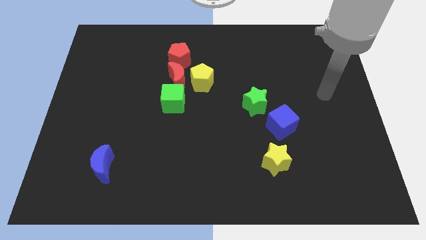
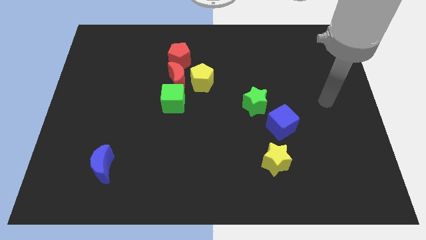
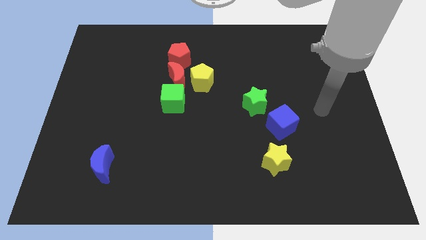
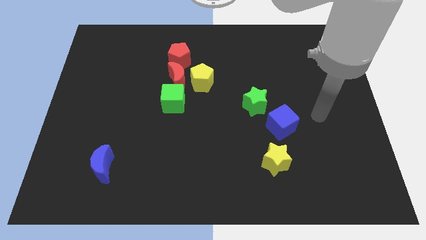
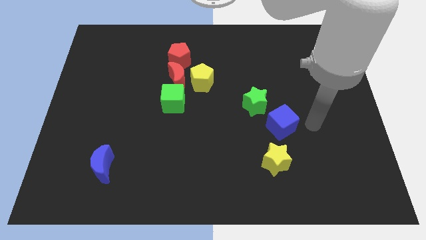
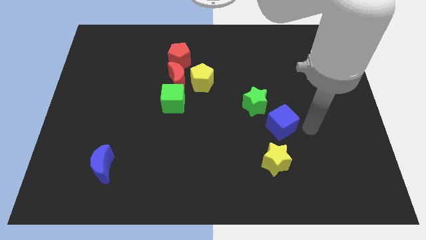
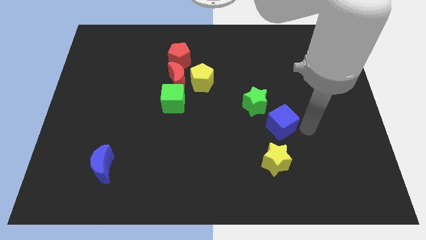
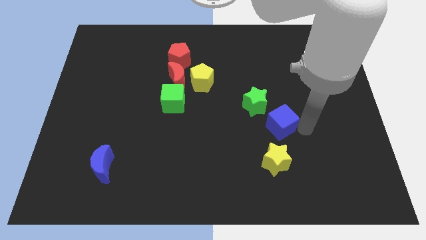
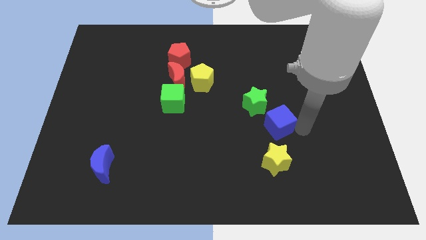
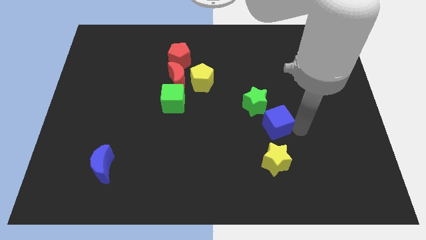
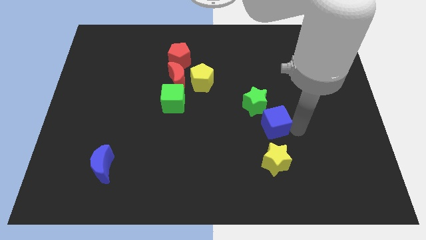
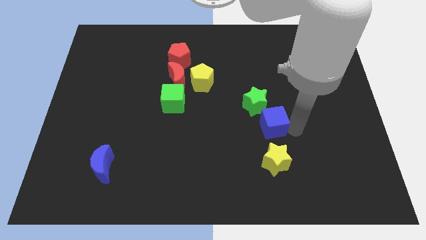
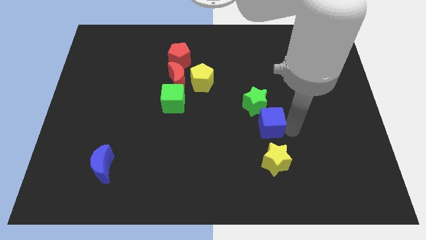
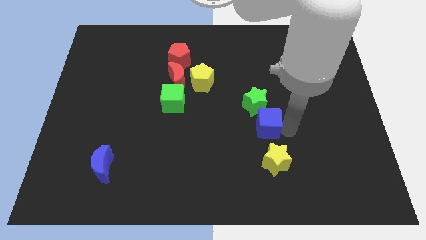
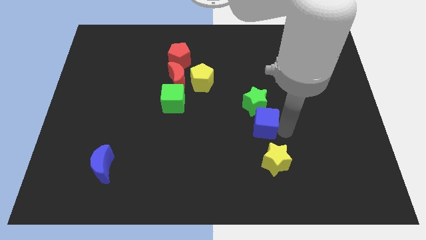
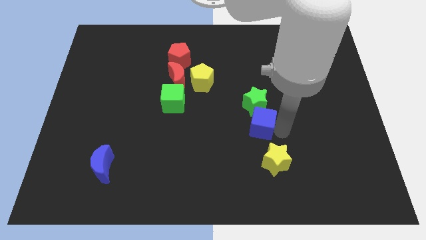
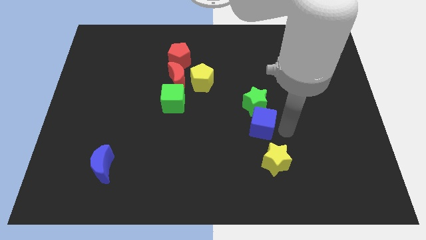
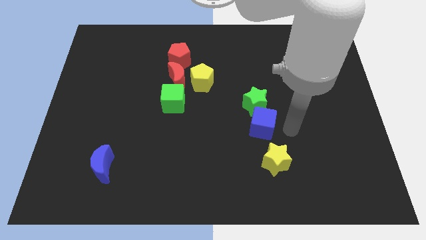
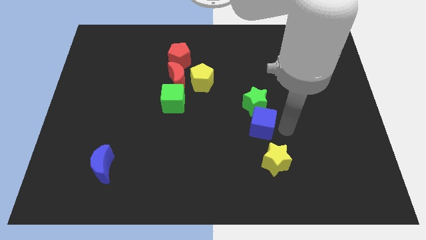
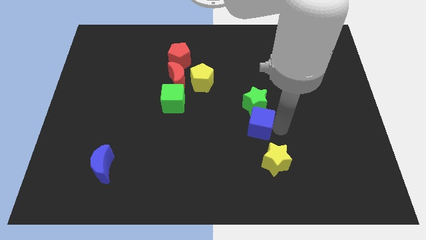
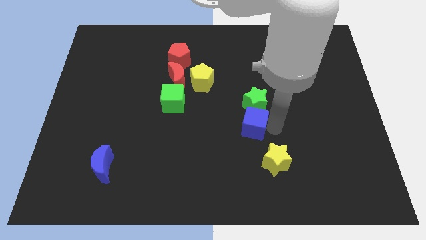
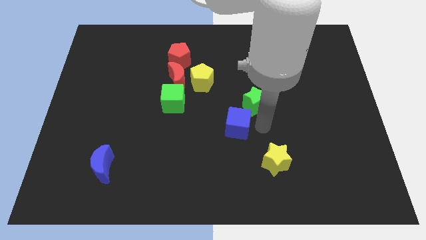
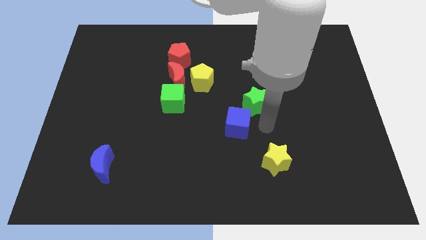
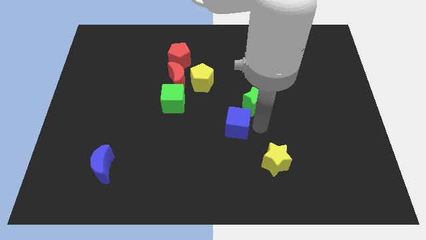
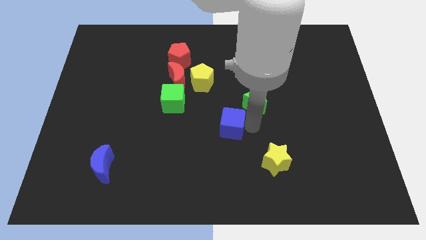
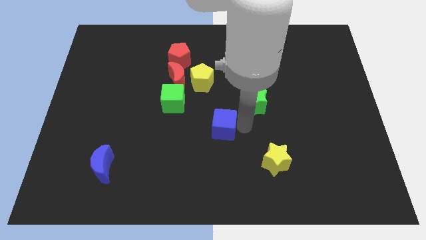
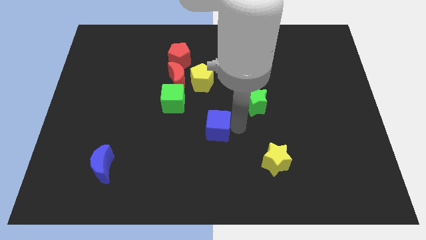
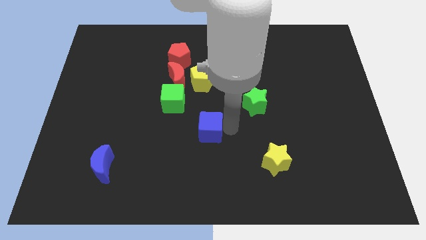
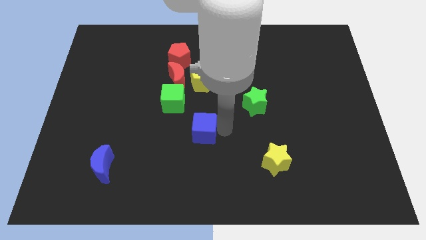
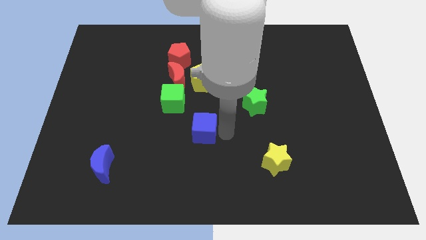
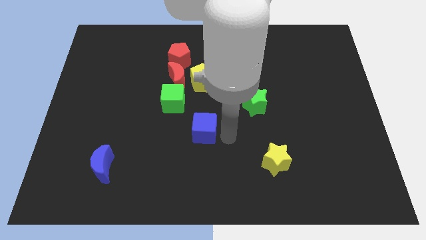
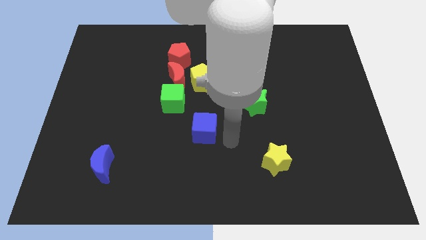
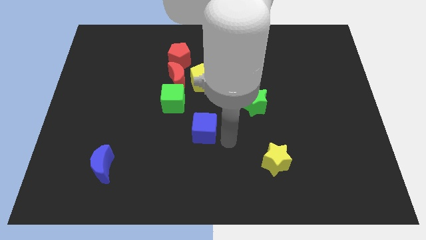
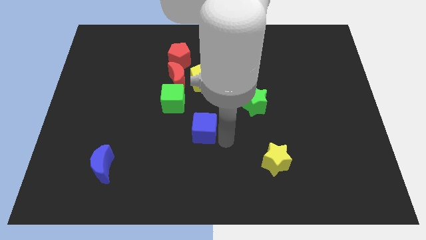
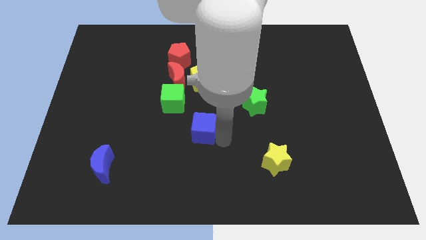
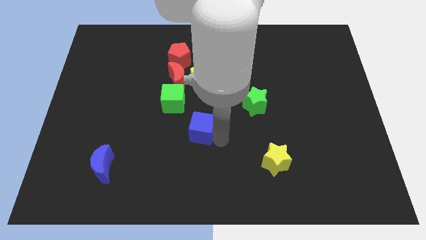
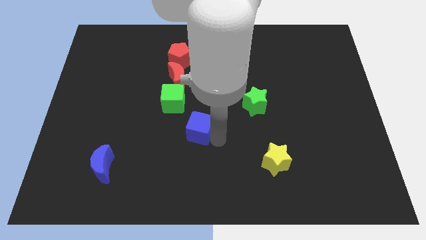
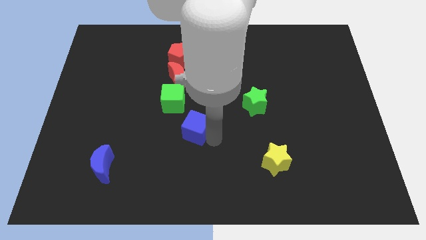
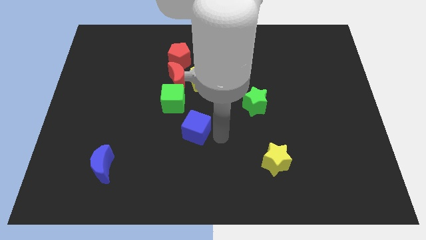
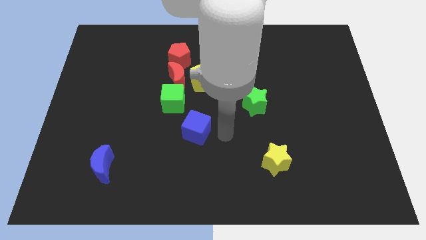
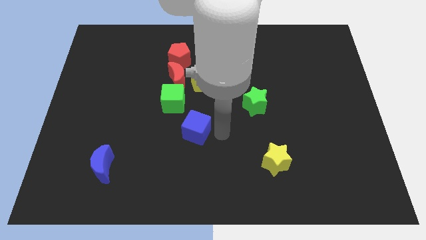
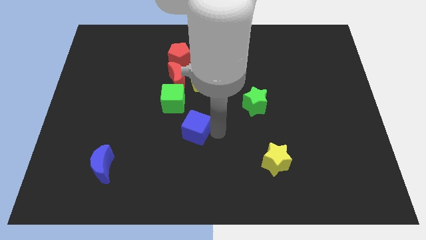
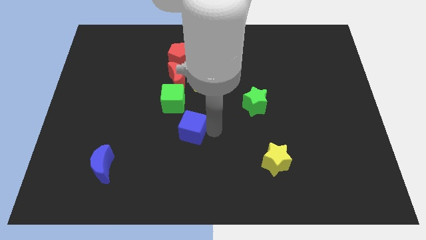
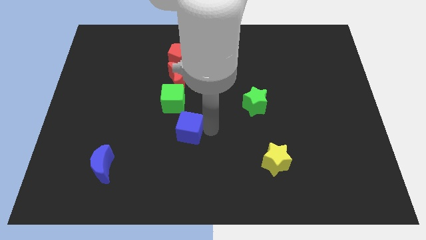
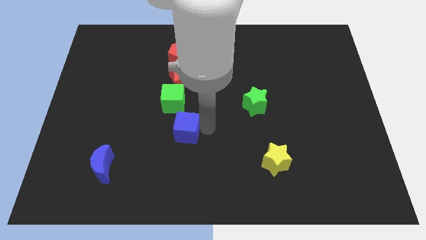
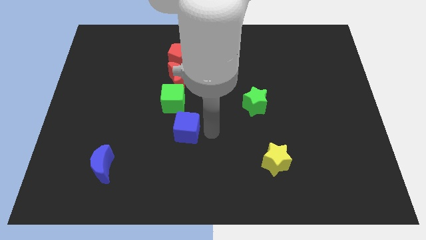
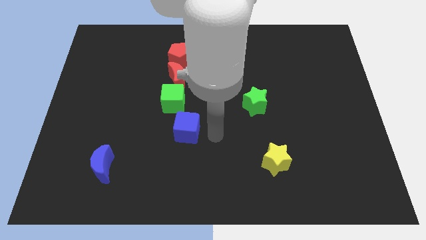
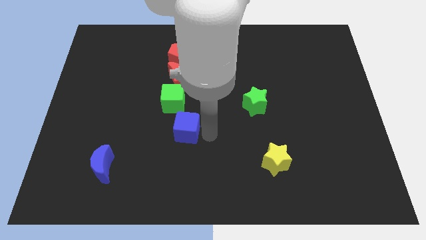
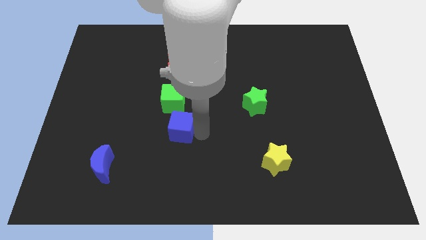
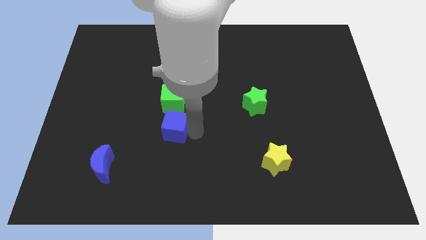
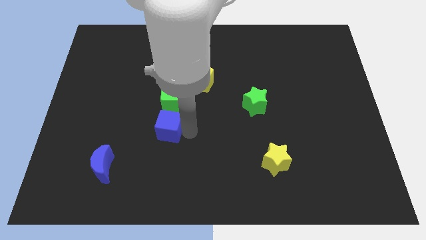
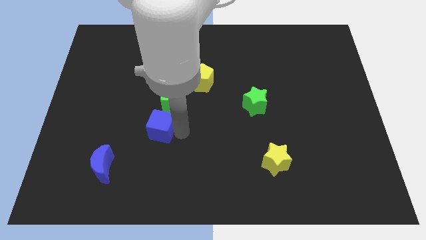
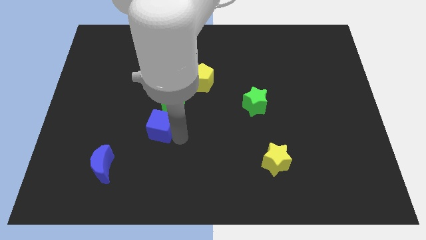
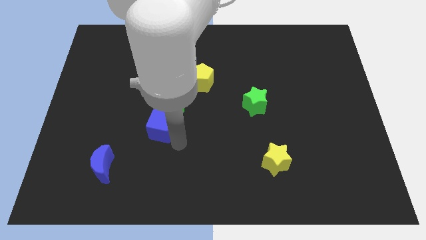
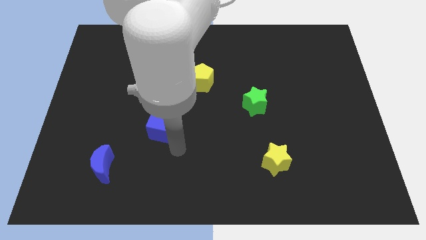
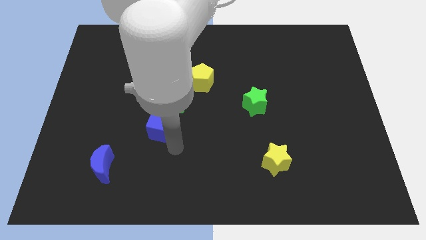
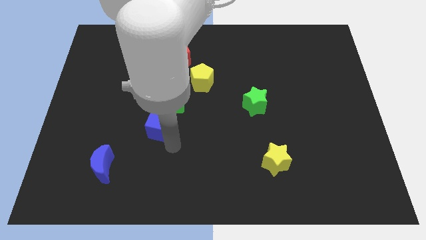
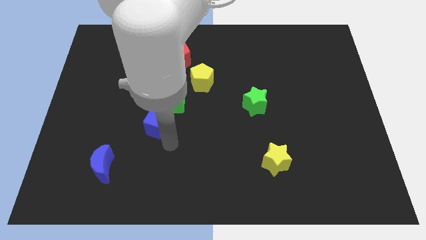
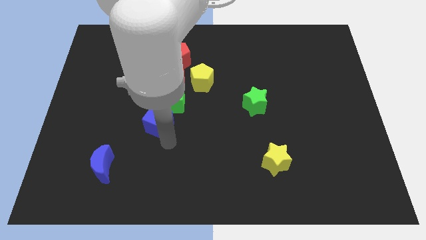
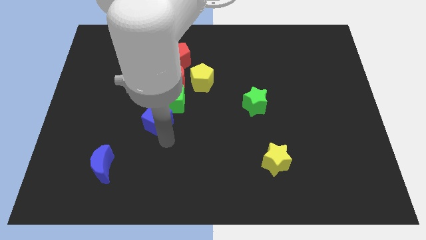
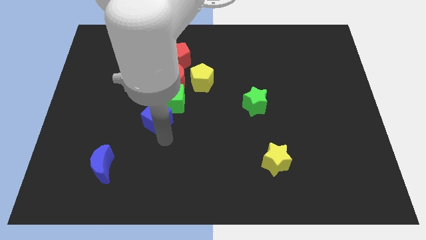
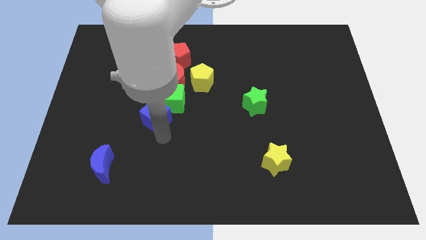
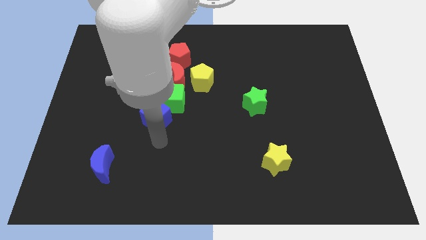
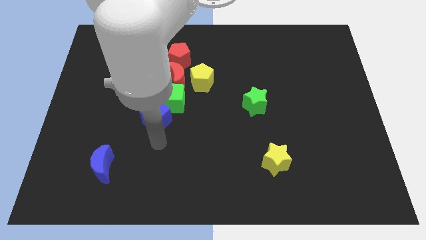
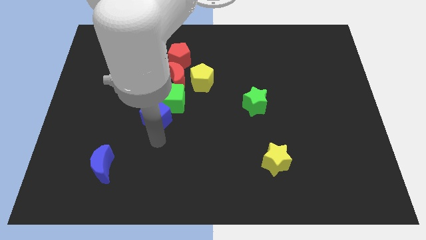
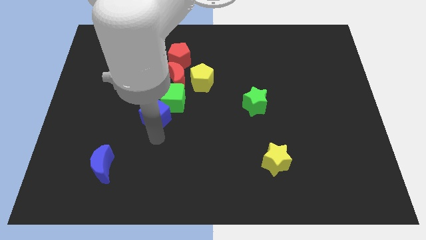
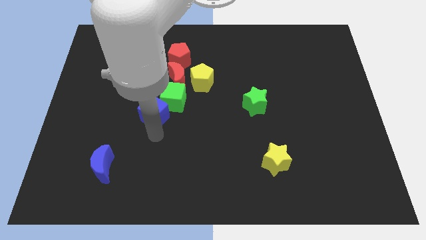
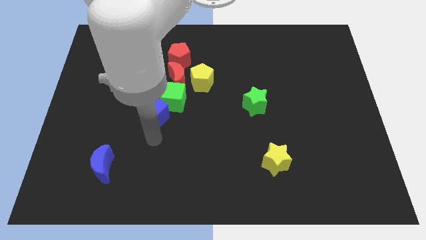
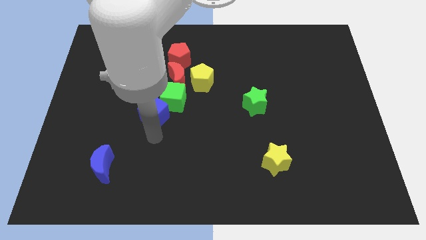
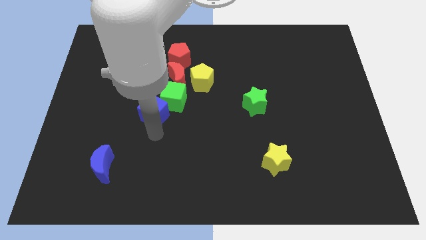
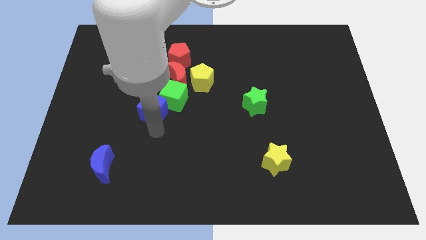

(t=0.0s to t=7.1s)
move the blue cube diagonally down and to the left of the red moon
